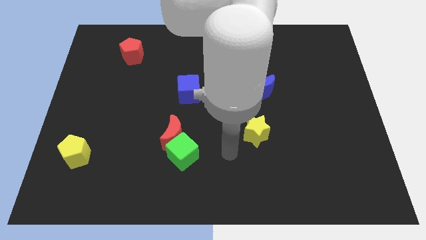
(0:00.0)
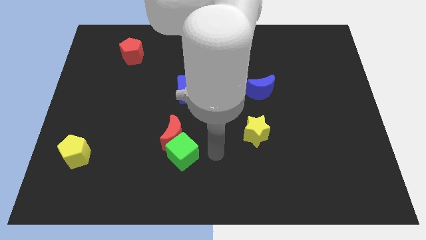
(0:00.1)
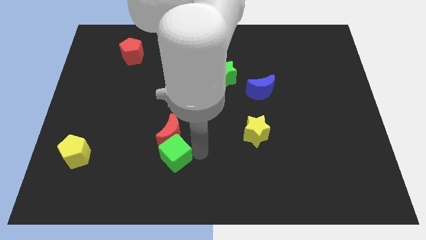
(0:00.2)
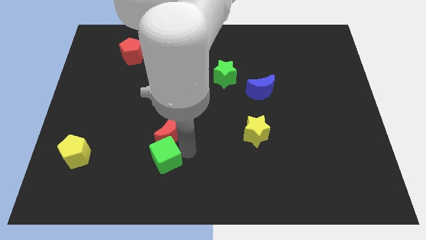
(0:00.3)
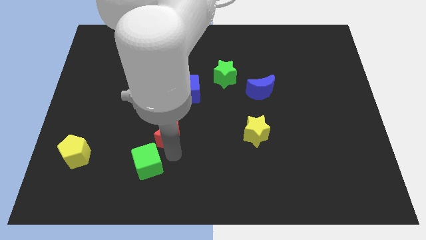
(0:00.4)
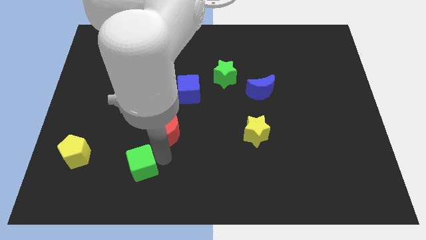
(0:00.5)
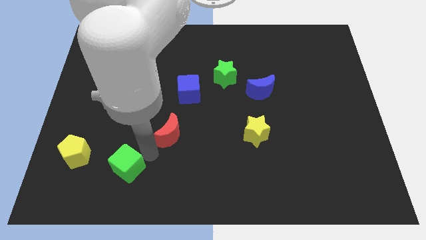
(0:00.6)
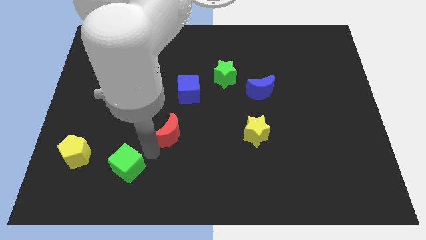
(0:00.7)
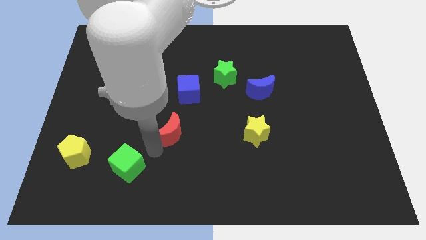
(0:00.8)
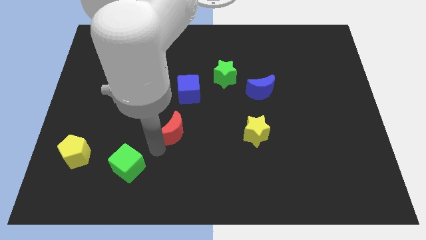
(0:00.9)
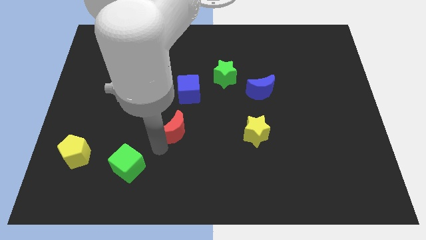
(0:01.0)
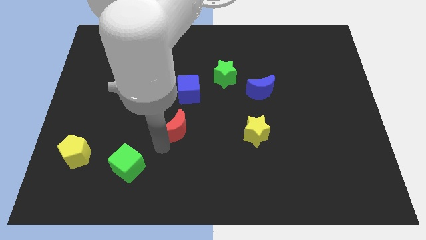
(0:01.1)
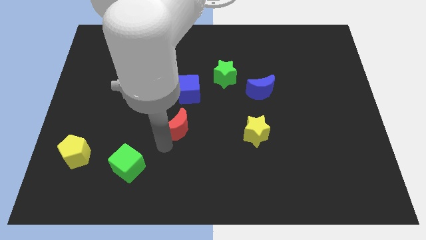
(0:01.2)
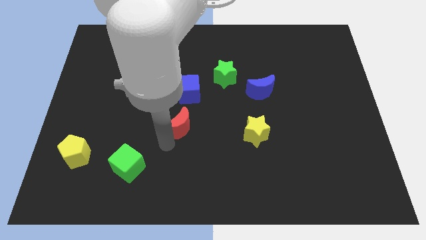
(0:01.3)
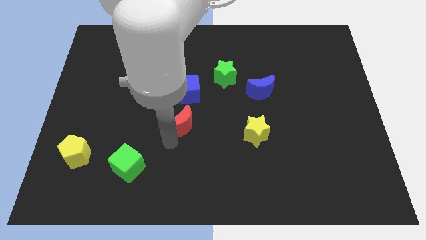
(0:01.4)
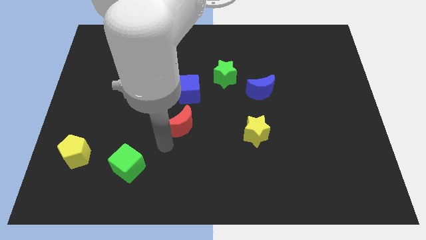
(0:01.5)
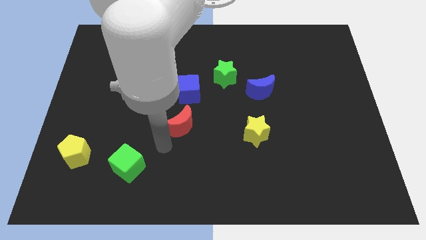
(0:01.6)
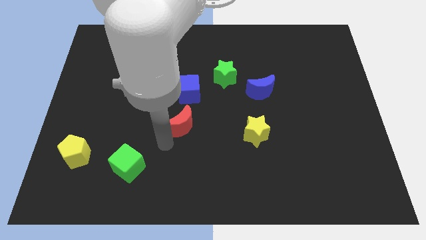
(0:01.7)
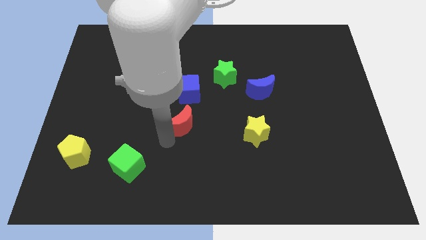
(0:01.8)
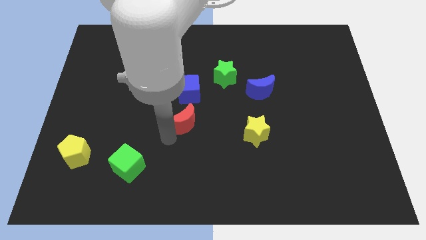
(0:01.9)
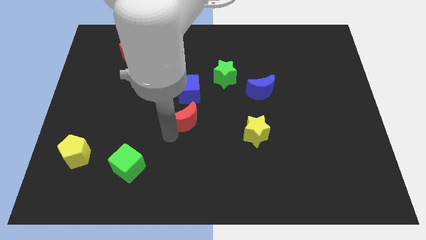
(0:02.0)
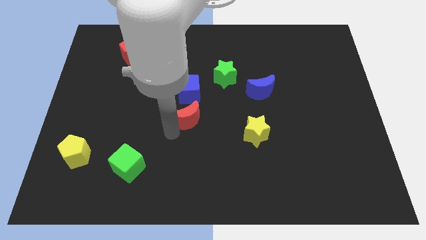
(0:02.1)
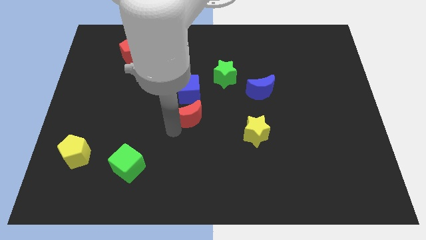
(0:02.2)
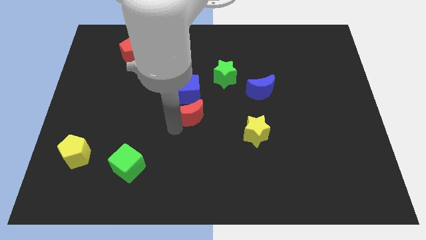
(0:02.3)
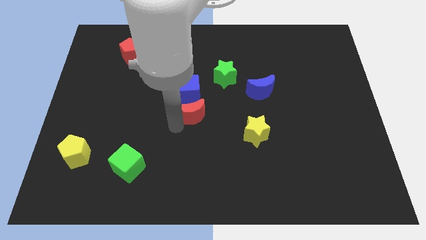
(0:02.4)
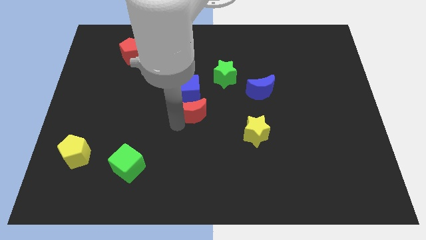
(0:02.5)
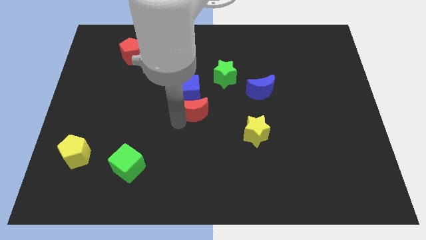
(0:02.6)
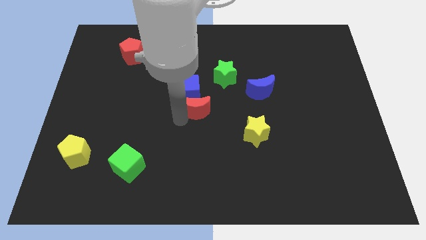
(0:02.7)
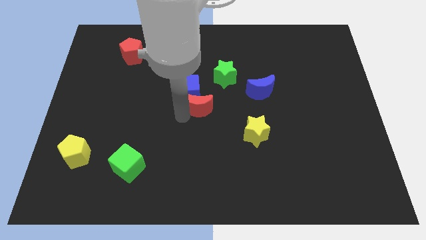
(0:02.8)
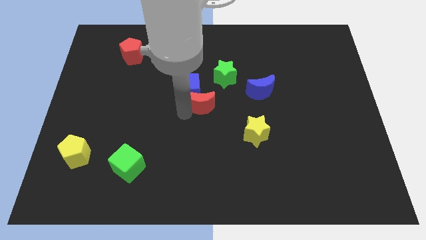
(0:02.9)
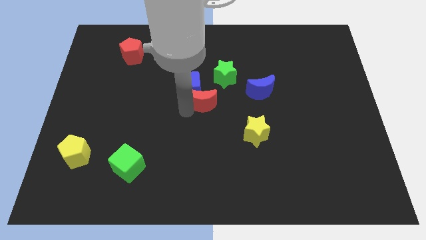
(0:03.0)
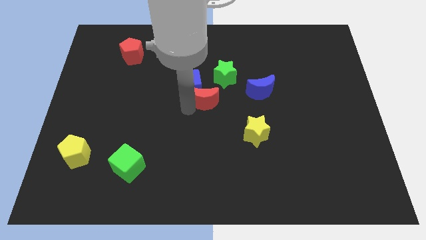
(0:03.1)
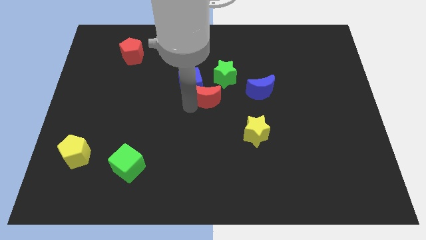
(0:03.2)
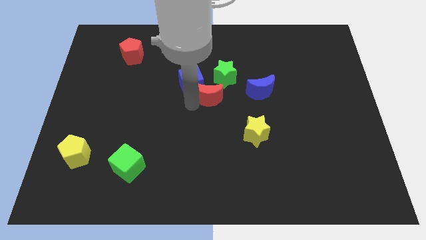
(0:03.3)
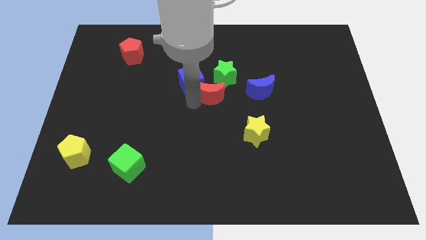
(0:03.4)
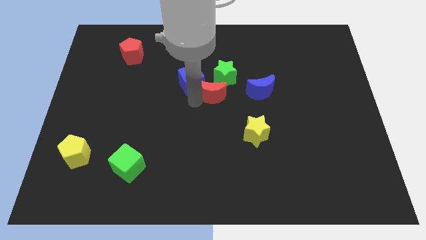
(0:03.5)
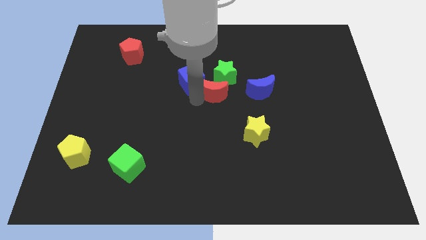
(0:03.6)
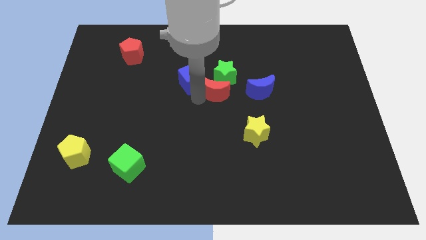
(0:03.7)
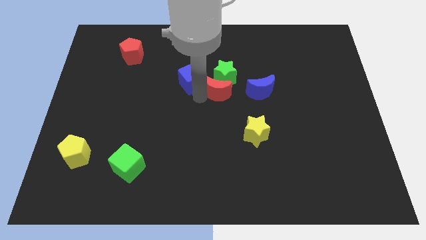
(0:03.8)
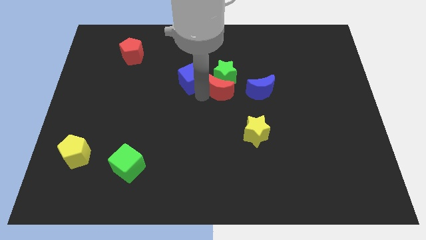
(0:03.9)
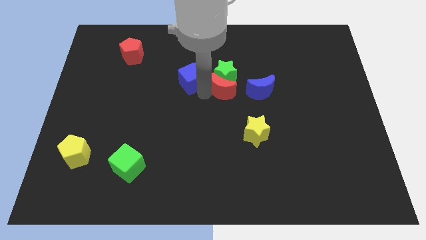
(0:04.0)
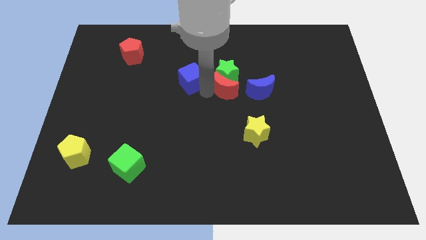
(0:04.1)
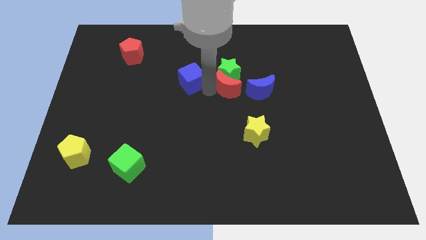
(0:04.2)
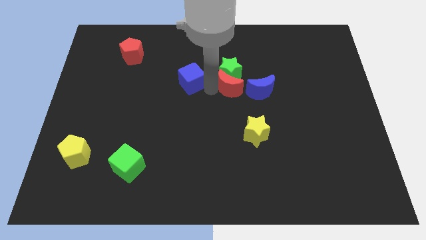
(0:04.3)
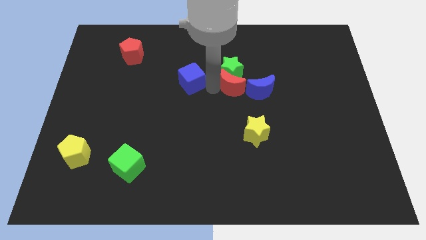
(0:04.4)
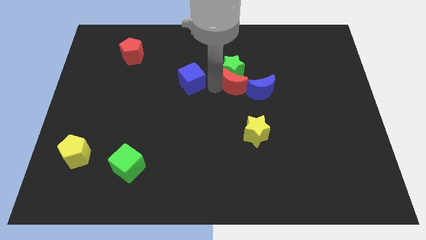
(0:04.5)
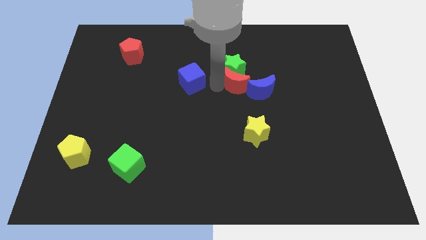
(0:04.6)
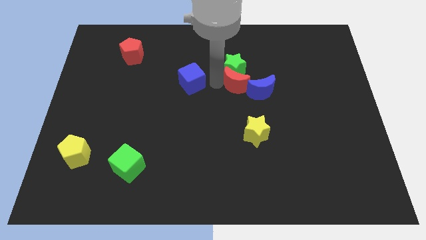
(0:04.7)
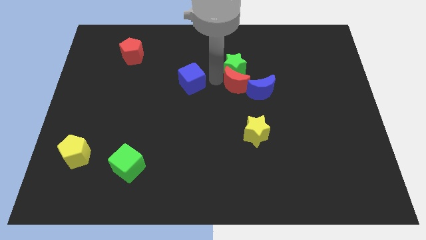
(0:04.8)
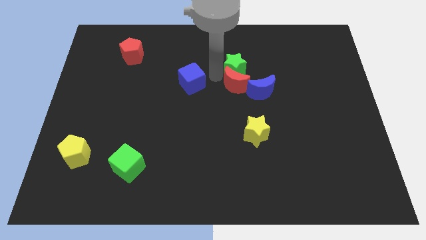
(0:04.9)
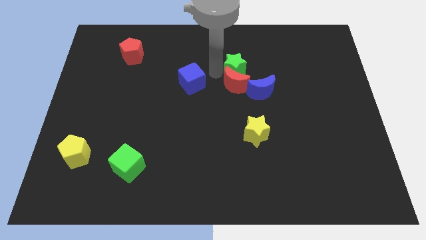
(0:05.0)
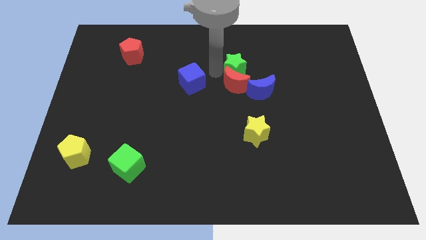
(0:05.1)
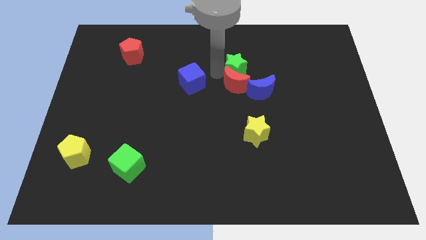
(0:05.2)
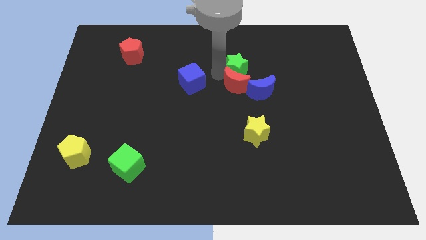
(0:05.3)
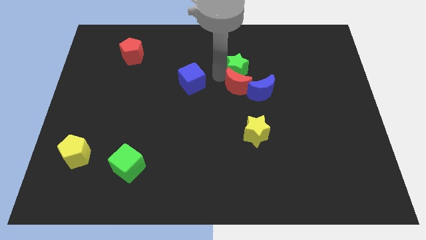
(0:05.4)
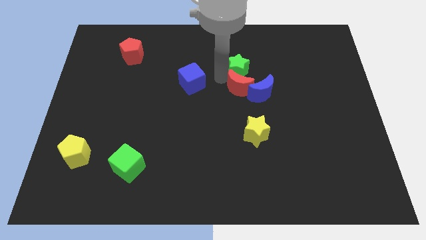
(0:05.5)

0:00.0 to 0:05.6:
push the red moon towards the blue moon

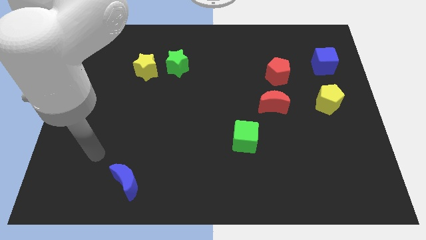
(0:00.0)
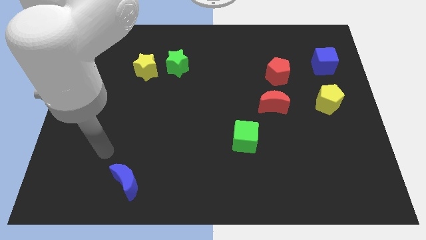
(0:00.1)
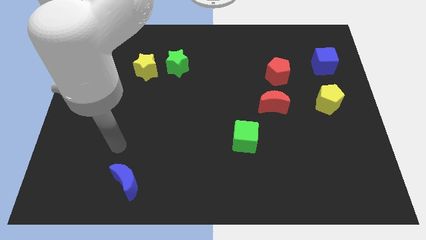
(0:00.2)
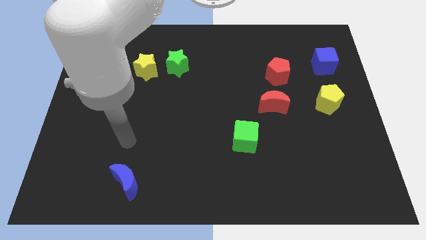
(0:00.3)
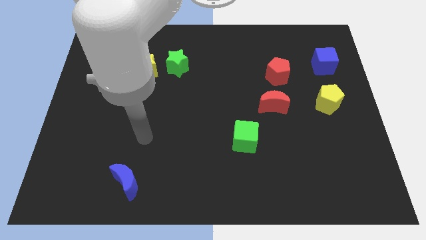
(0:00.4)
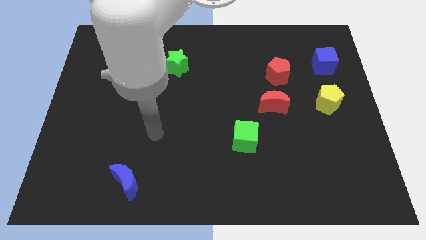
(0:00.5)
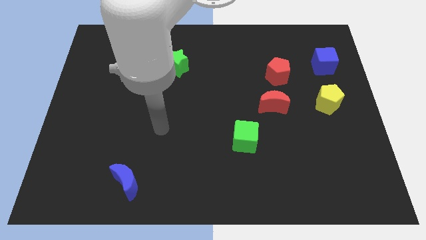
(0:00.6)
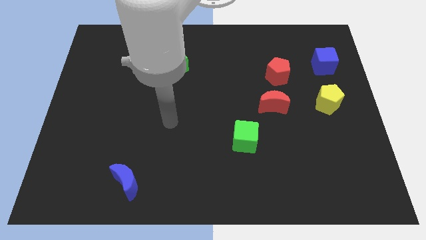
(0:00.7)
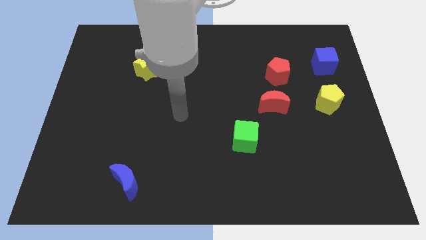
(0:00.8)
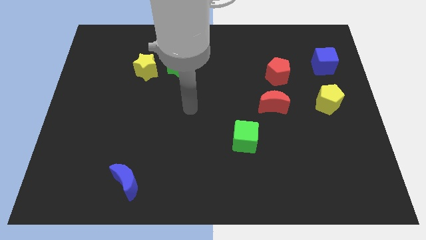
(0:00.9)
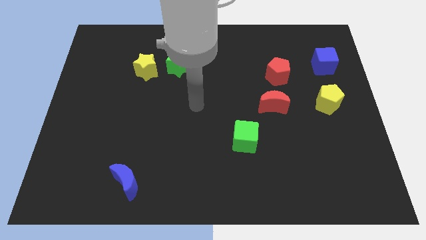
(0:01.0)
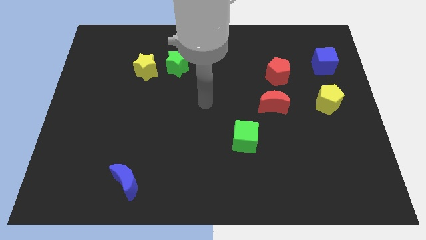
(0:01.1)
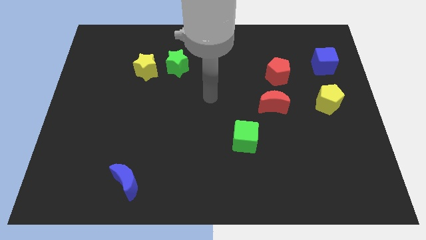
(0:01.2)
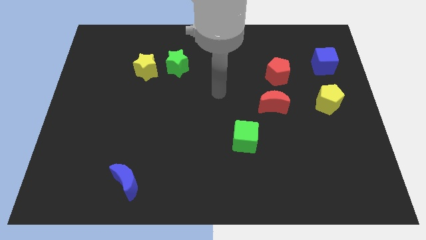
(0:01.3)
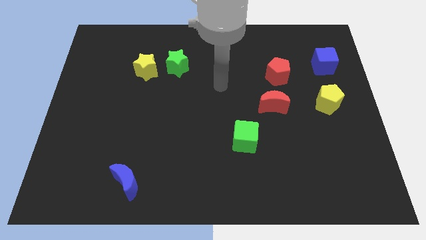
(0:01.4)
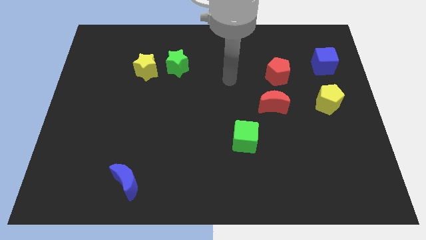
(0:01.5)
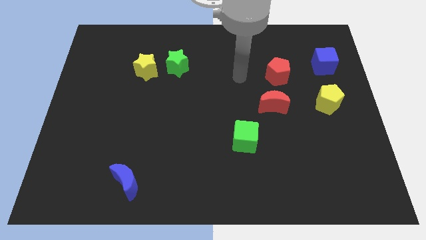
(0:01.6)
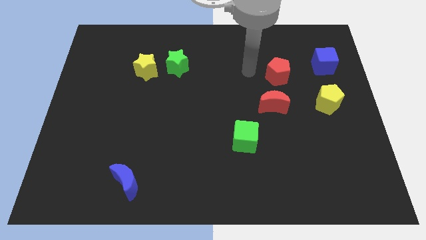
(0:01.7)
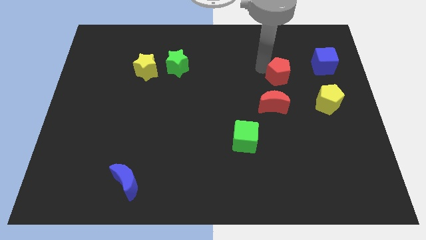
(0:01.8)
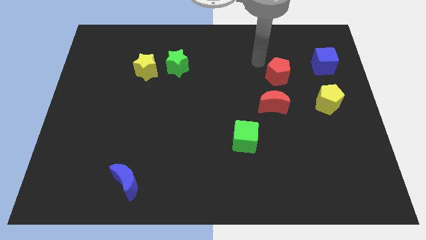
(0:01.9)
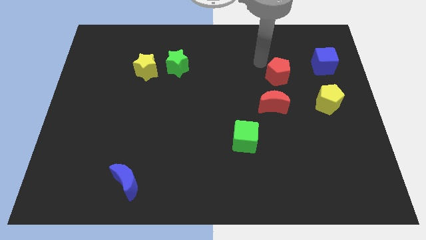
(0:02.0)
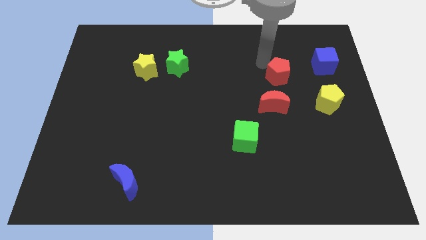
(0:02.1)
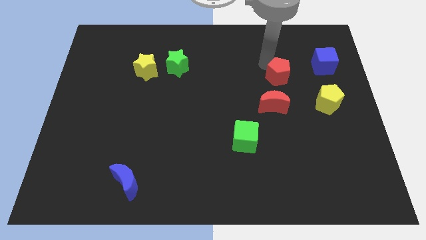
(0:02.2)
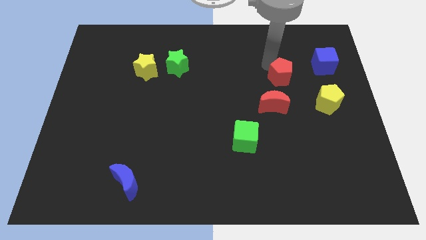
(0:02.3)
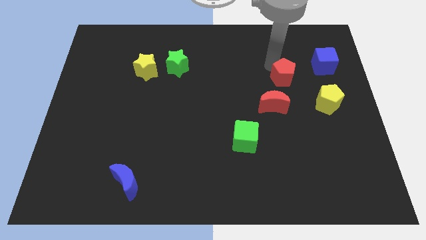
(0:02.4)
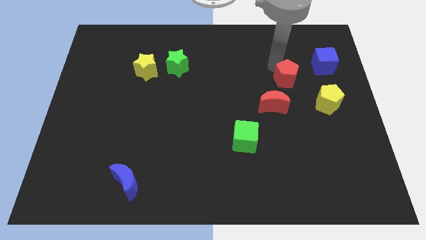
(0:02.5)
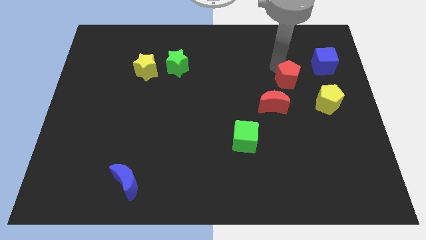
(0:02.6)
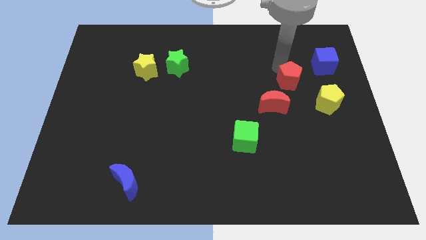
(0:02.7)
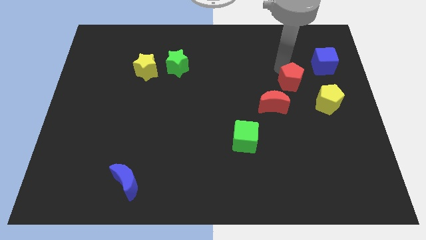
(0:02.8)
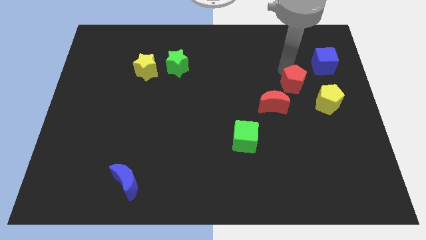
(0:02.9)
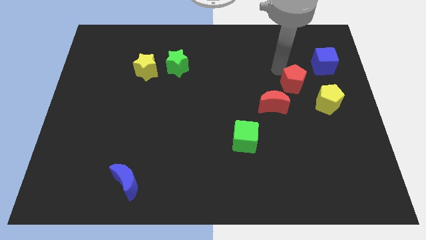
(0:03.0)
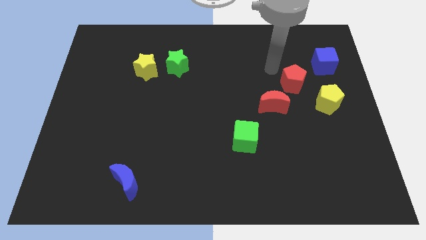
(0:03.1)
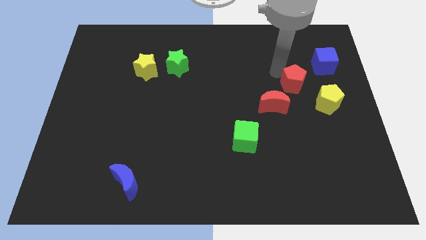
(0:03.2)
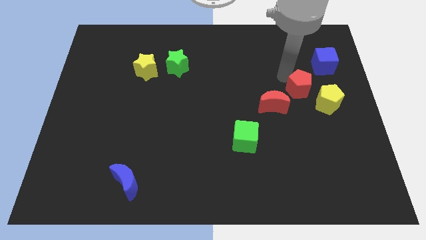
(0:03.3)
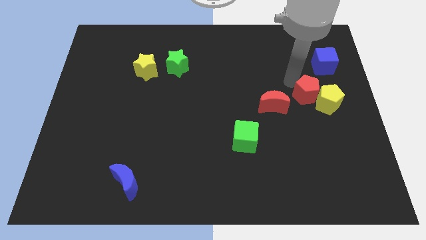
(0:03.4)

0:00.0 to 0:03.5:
move the red pentagon next to the yellow pentagon
